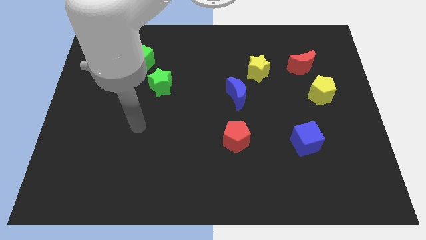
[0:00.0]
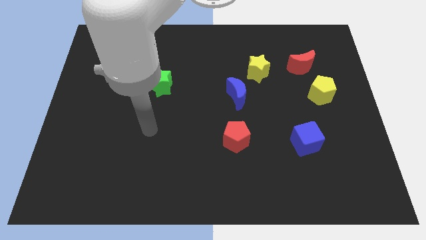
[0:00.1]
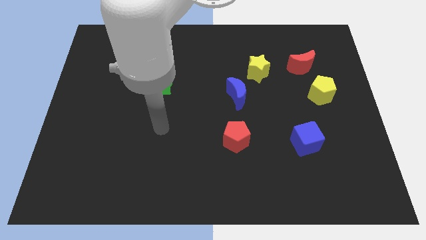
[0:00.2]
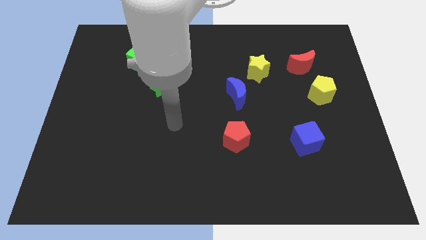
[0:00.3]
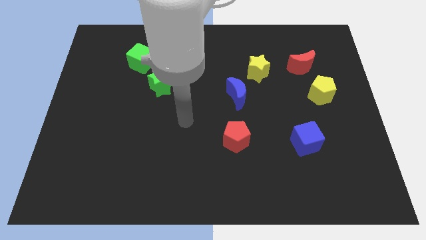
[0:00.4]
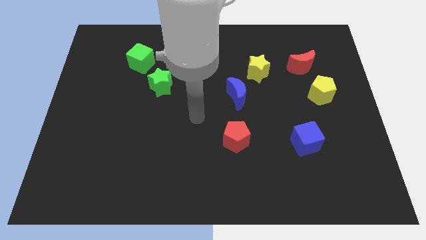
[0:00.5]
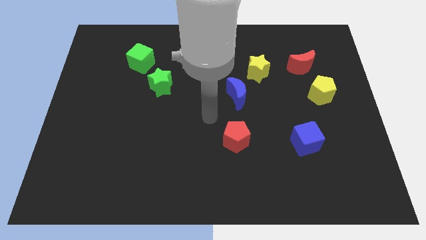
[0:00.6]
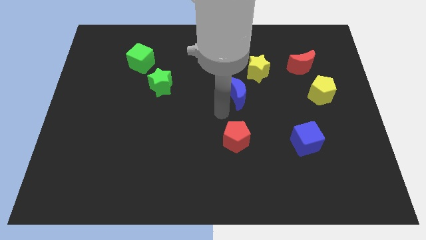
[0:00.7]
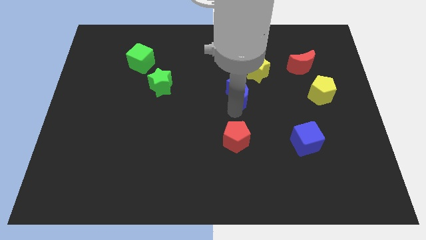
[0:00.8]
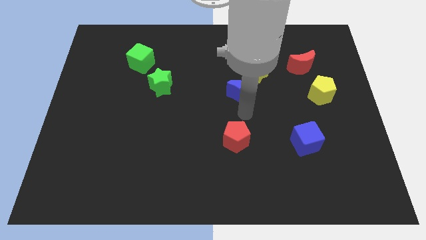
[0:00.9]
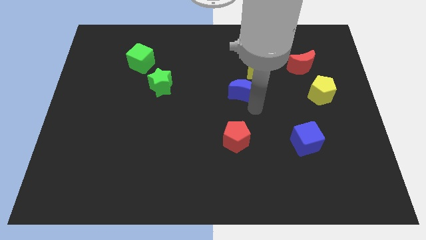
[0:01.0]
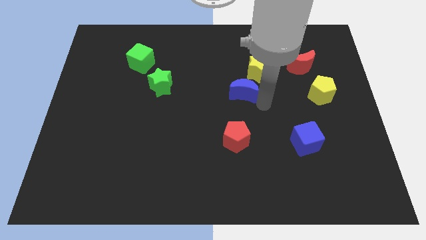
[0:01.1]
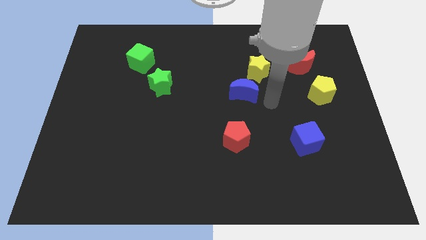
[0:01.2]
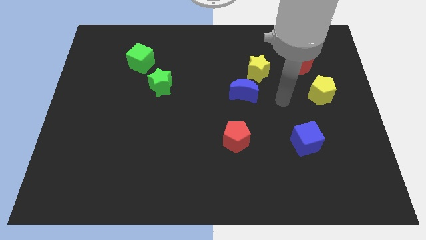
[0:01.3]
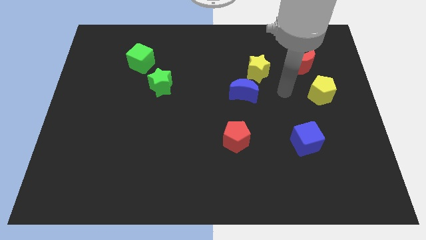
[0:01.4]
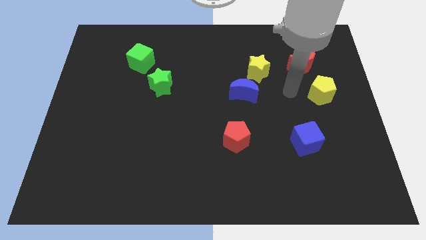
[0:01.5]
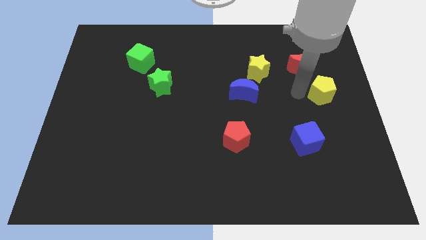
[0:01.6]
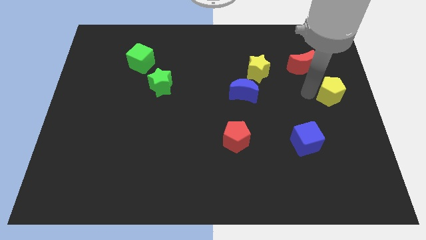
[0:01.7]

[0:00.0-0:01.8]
pull the red moon apart from the yellow pentagon

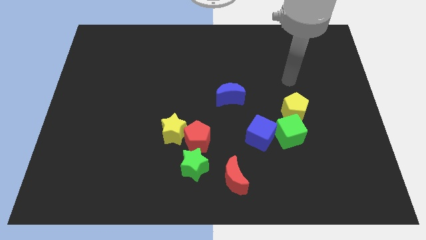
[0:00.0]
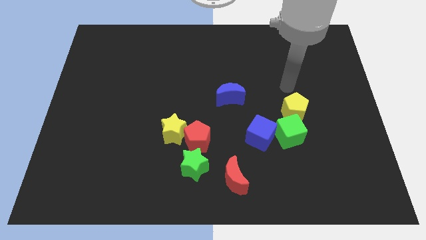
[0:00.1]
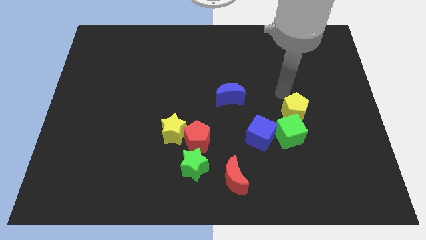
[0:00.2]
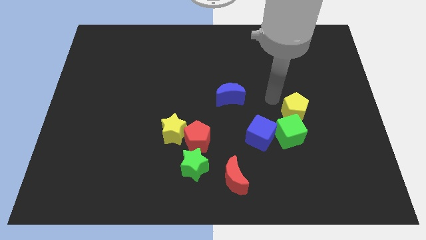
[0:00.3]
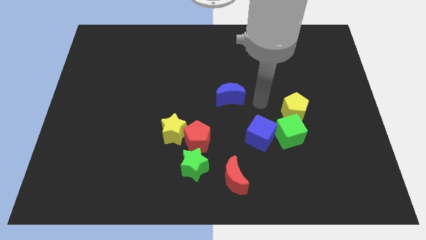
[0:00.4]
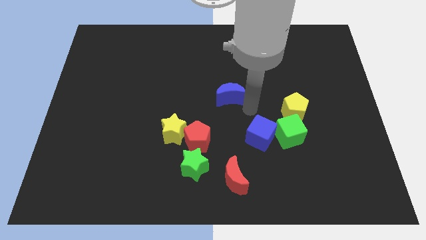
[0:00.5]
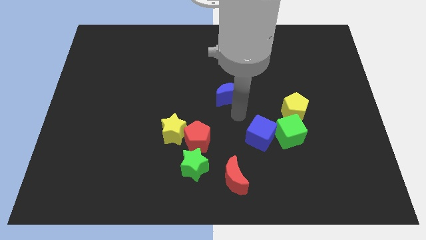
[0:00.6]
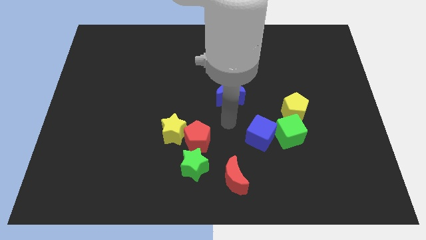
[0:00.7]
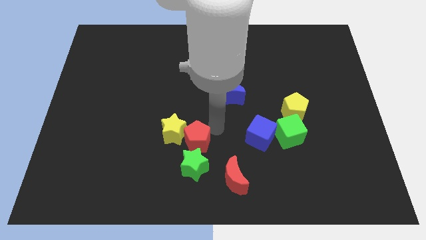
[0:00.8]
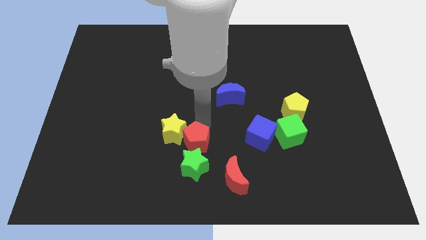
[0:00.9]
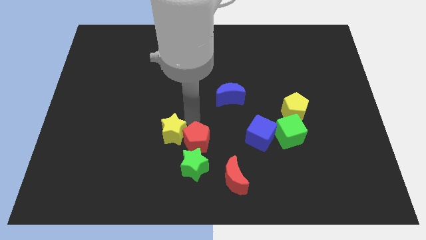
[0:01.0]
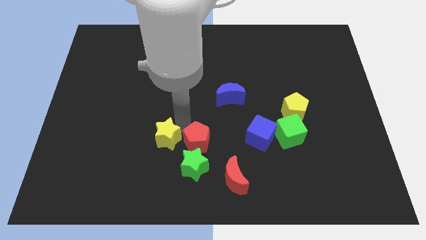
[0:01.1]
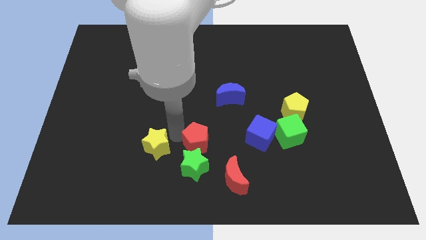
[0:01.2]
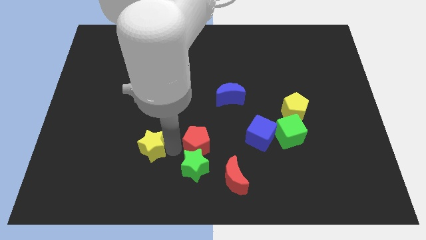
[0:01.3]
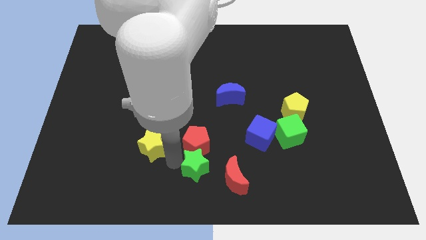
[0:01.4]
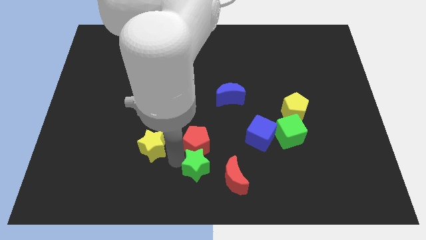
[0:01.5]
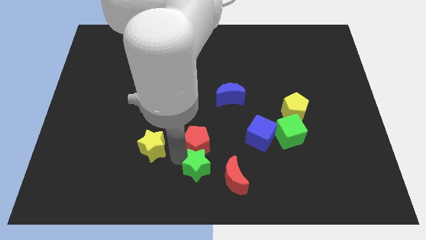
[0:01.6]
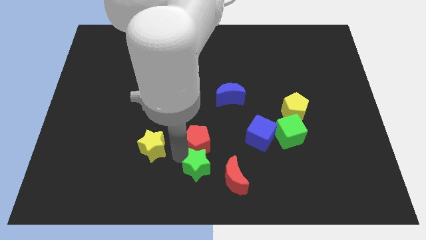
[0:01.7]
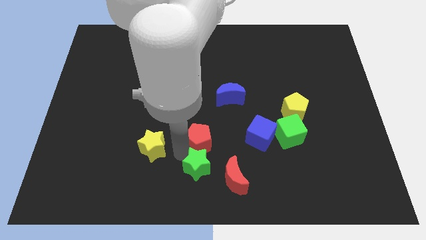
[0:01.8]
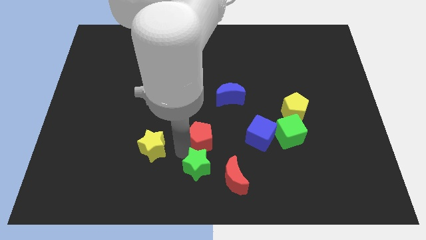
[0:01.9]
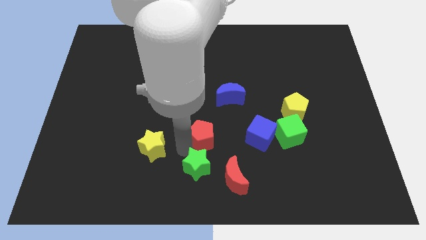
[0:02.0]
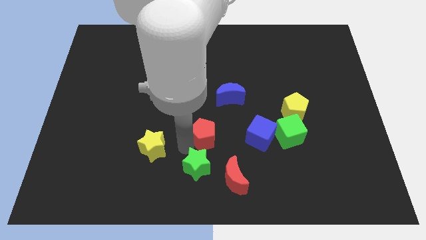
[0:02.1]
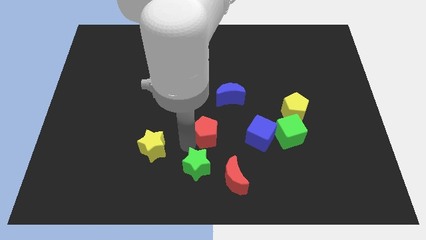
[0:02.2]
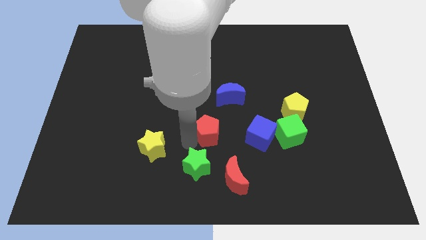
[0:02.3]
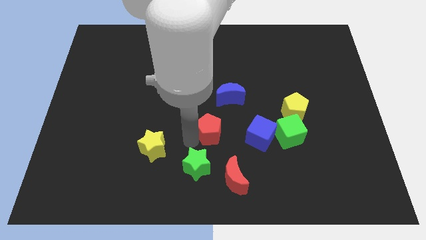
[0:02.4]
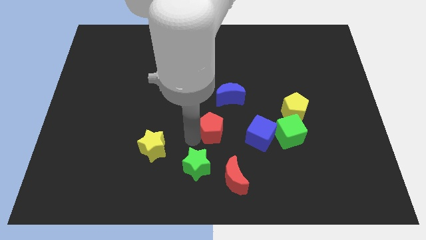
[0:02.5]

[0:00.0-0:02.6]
move the red pentagon away from the yellow star and green star

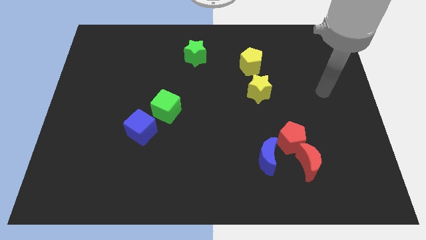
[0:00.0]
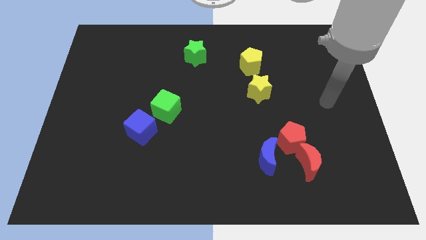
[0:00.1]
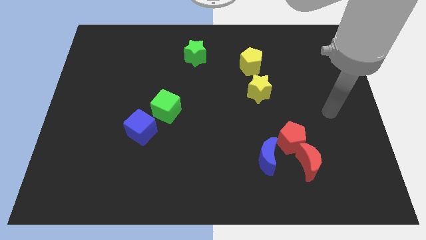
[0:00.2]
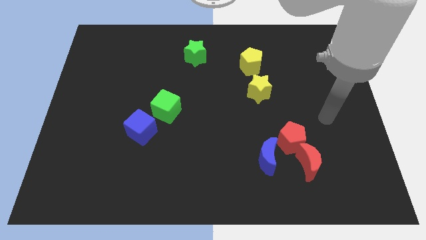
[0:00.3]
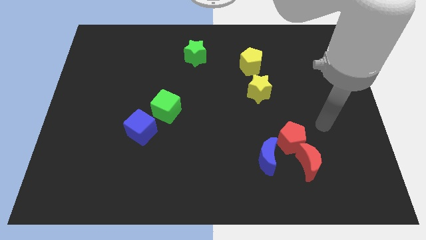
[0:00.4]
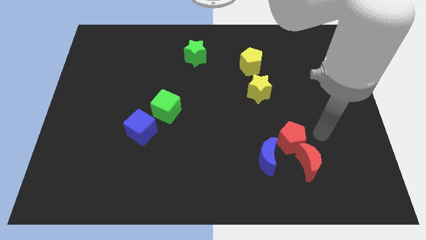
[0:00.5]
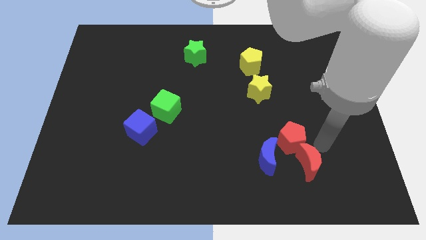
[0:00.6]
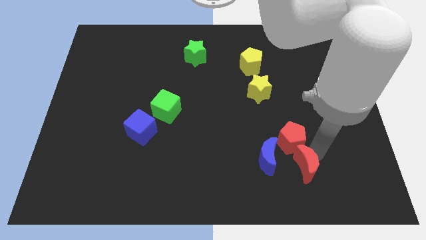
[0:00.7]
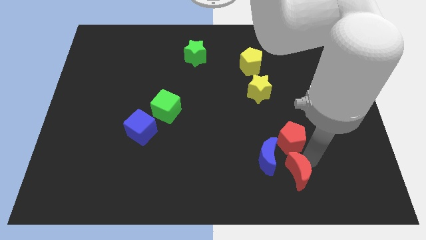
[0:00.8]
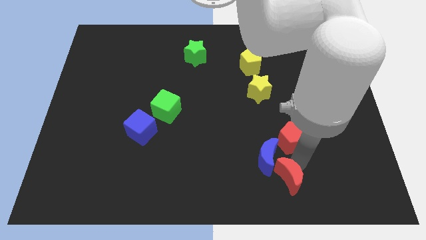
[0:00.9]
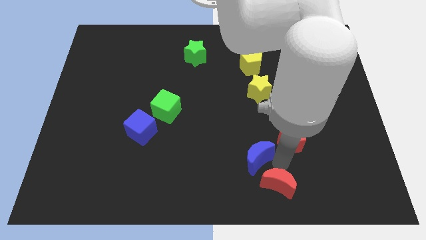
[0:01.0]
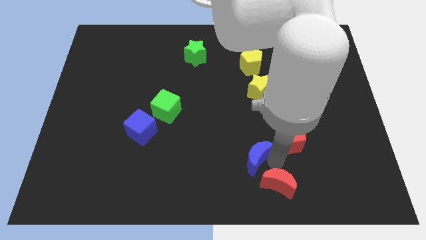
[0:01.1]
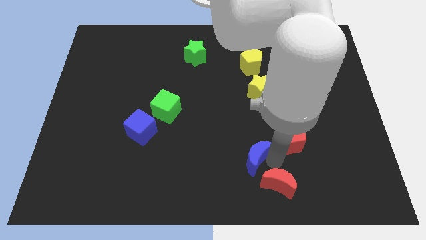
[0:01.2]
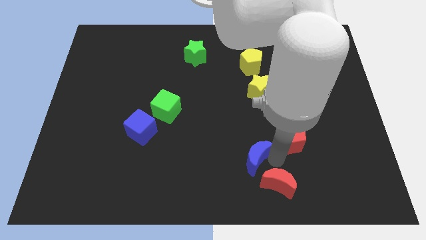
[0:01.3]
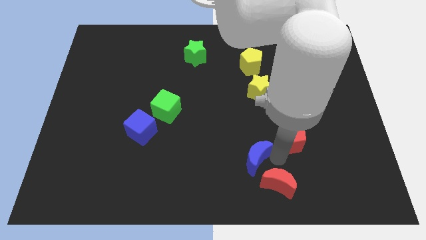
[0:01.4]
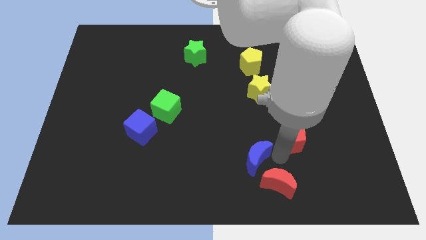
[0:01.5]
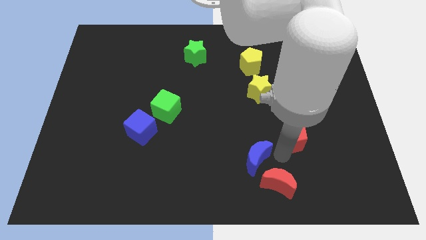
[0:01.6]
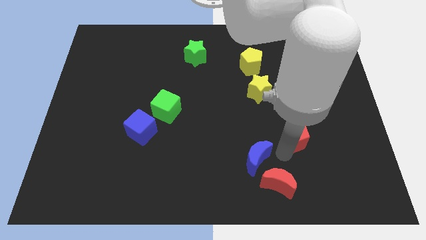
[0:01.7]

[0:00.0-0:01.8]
separate the red pentagon from the red moon and blue moon

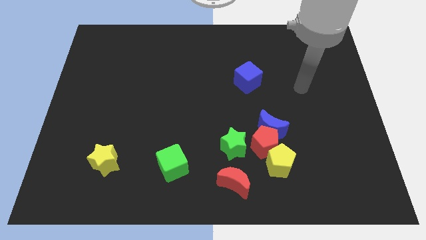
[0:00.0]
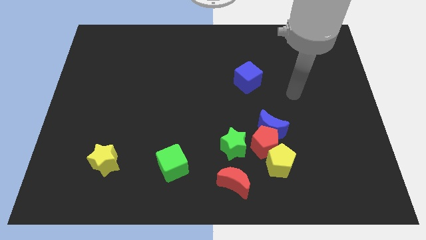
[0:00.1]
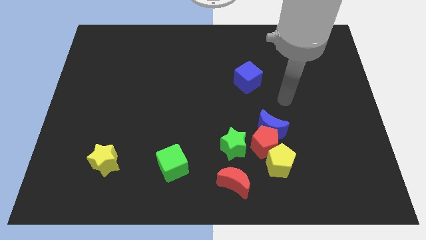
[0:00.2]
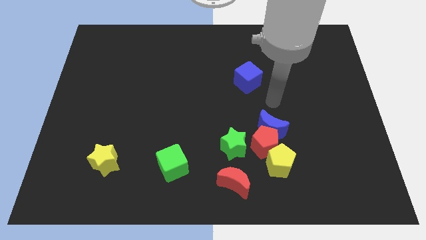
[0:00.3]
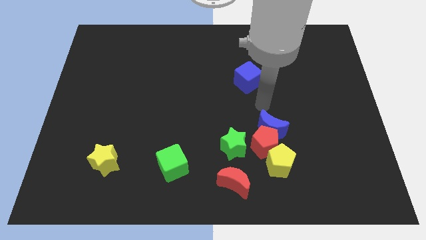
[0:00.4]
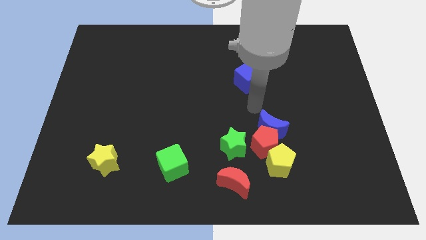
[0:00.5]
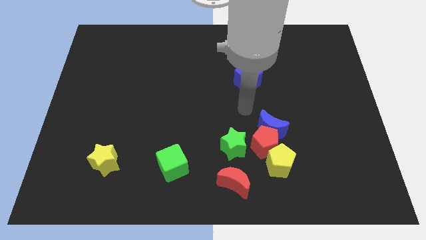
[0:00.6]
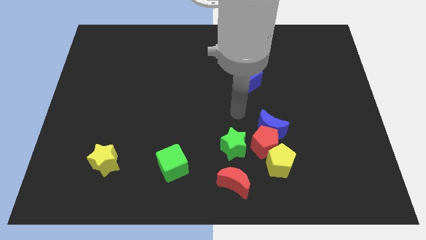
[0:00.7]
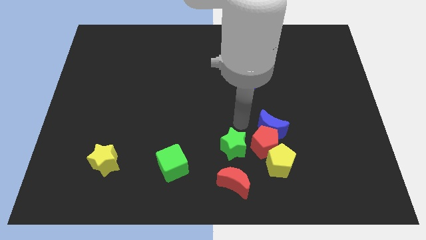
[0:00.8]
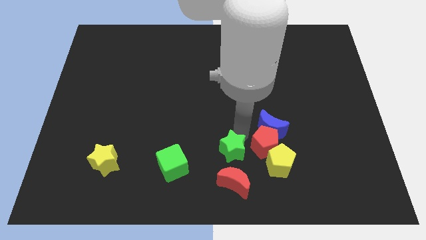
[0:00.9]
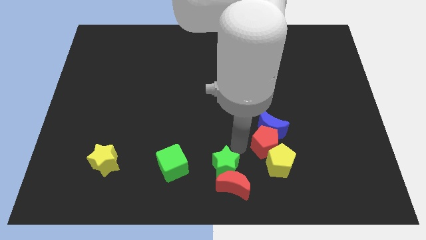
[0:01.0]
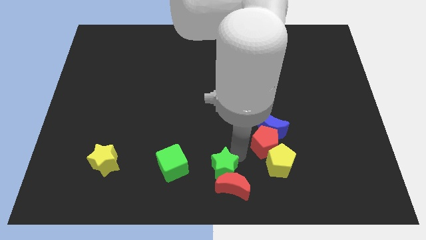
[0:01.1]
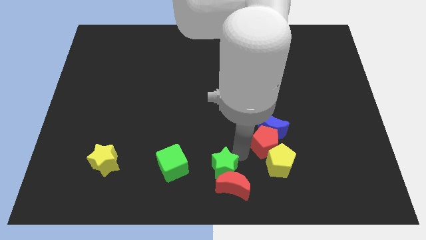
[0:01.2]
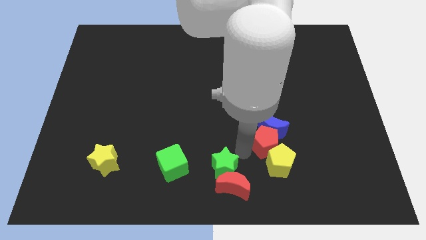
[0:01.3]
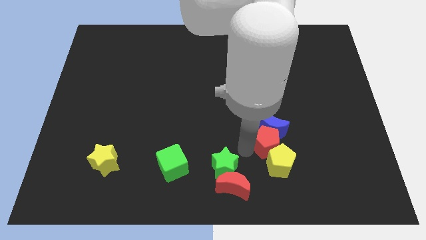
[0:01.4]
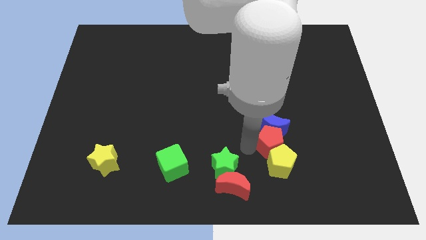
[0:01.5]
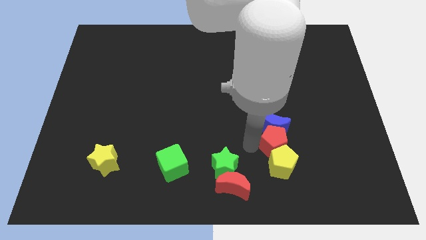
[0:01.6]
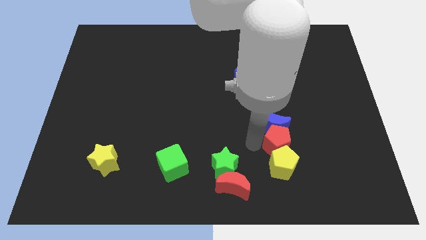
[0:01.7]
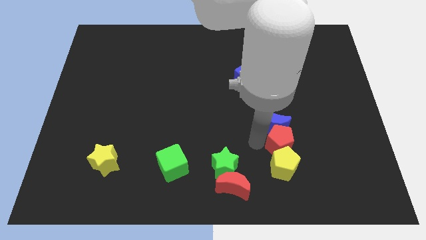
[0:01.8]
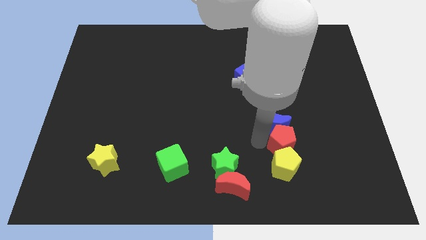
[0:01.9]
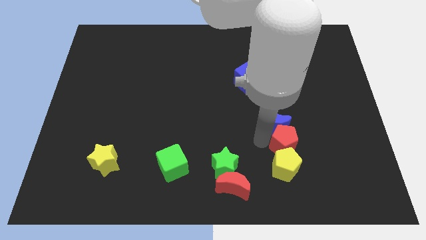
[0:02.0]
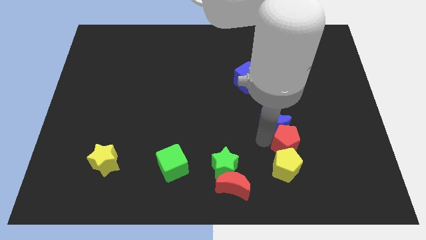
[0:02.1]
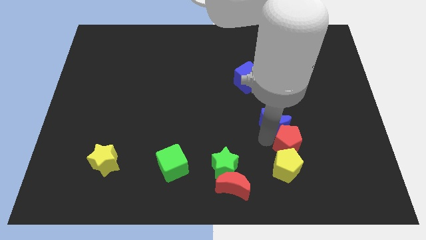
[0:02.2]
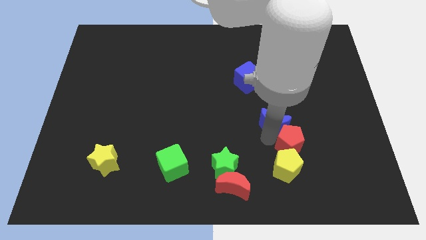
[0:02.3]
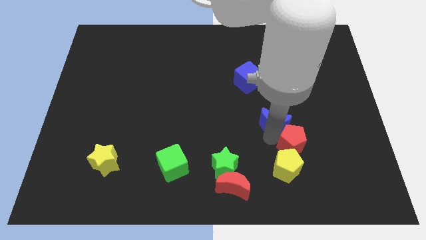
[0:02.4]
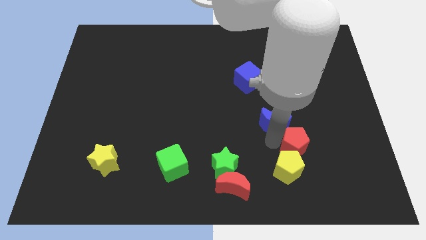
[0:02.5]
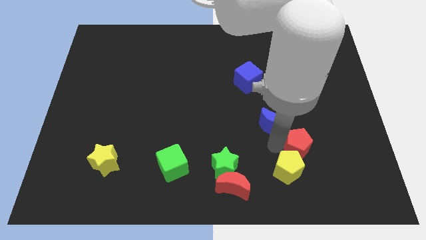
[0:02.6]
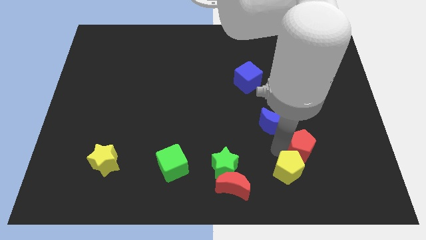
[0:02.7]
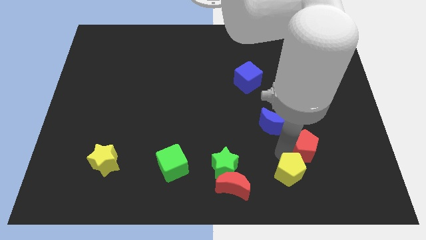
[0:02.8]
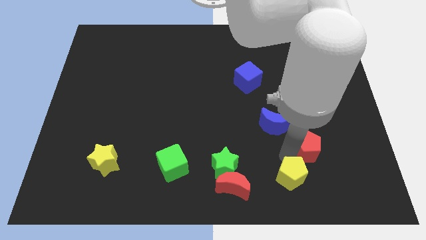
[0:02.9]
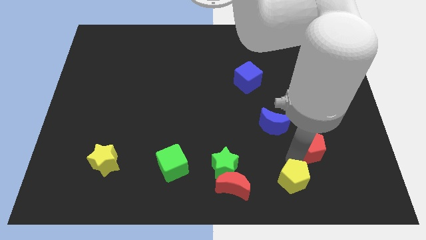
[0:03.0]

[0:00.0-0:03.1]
move the red pentagon away from the blue moon, yellow pentagon, and green star

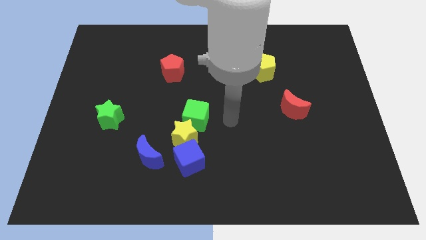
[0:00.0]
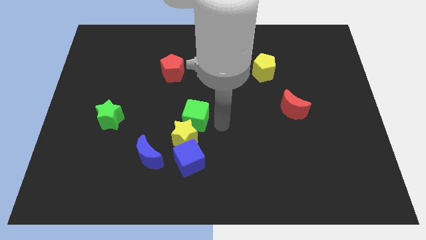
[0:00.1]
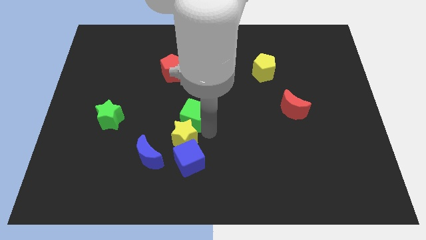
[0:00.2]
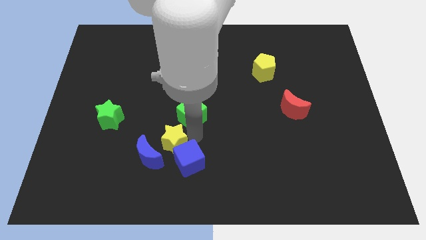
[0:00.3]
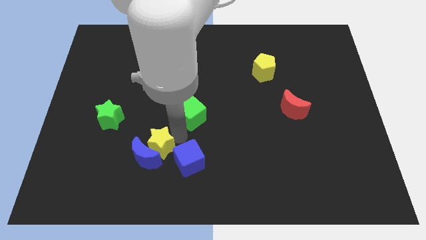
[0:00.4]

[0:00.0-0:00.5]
separate the green cube from the yellow star
